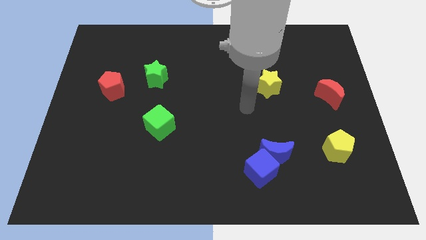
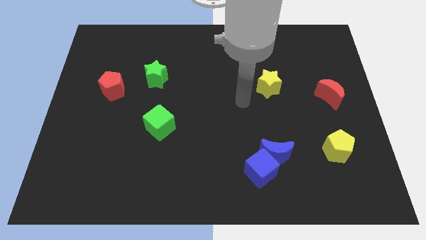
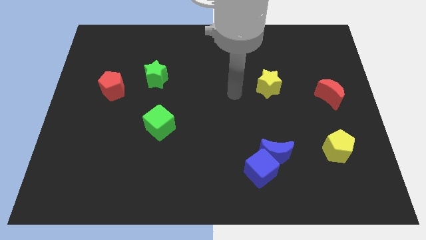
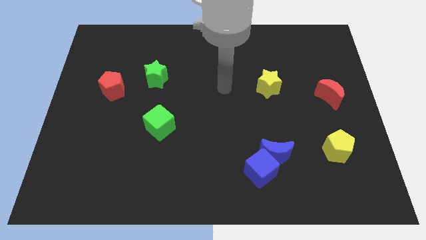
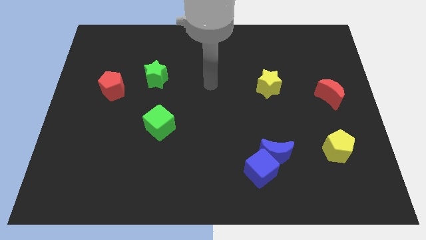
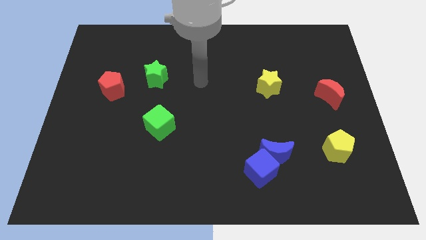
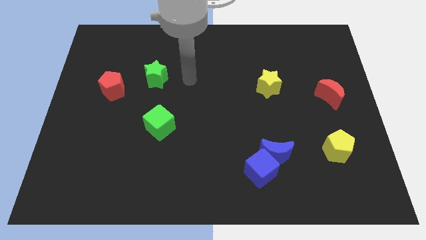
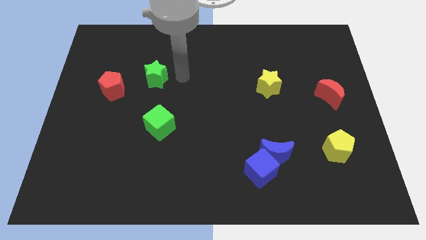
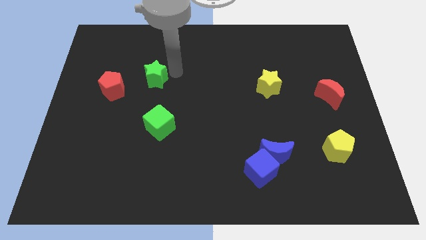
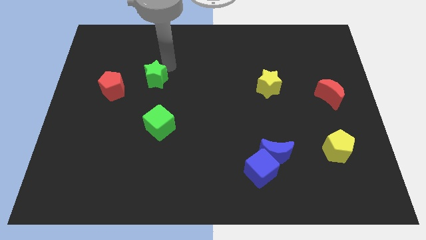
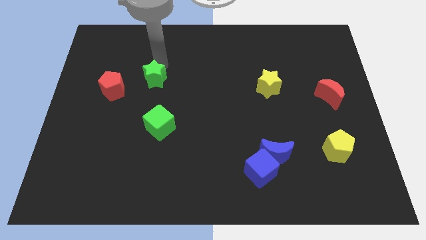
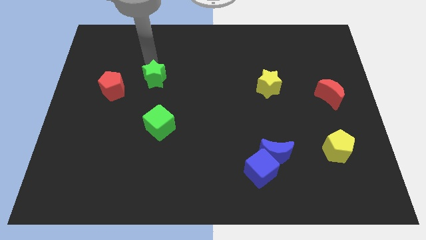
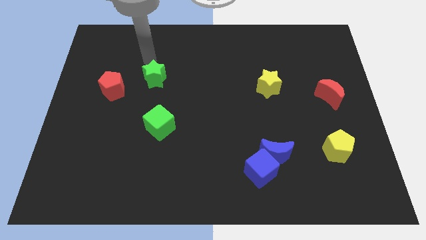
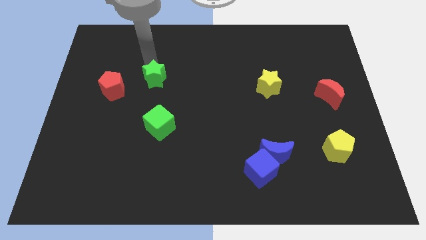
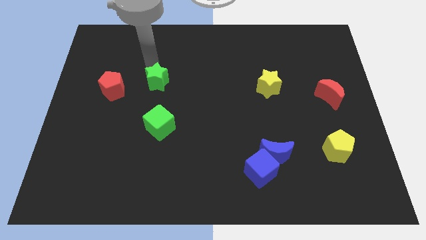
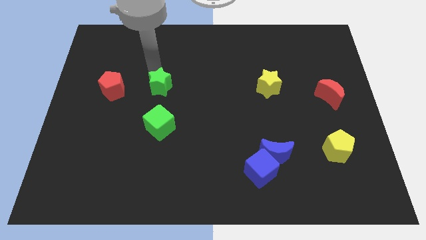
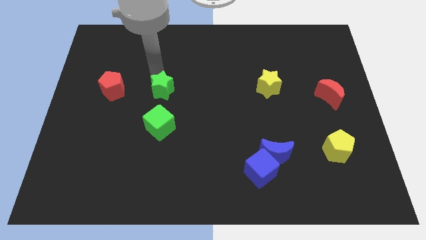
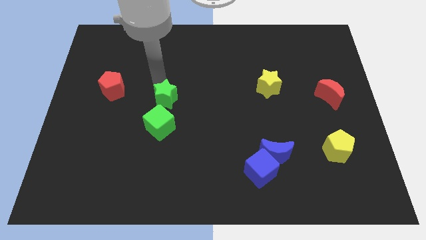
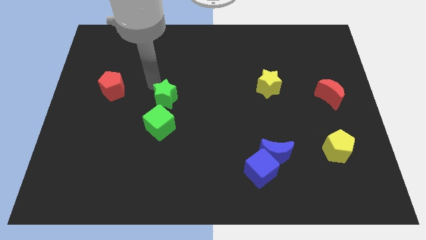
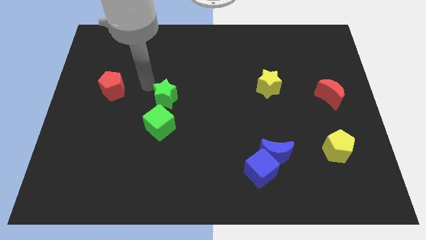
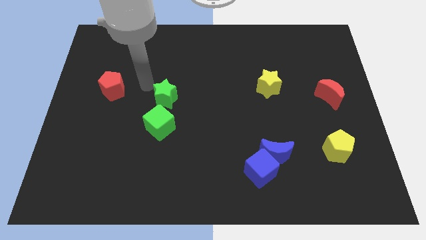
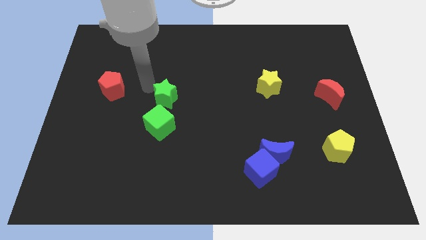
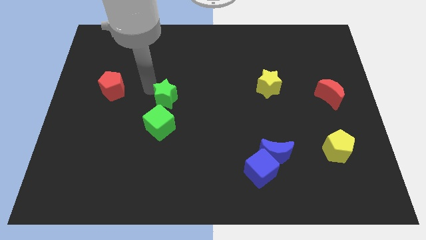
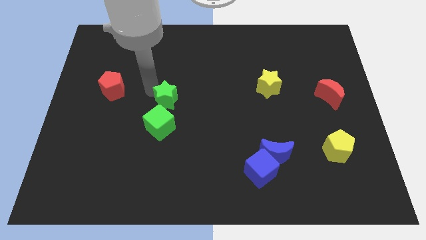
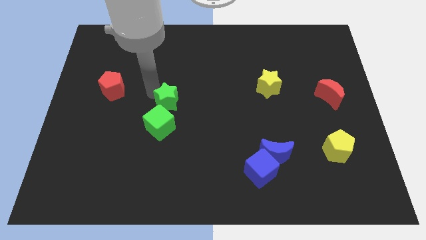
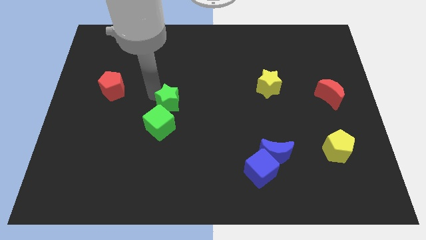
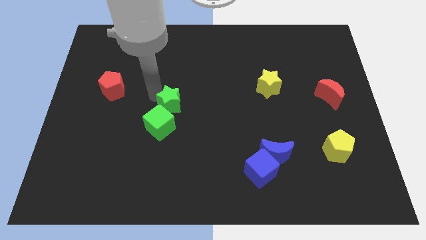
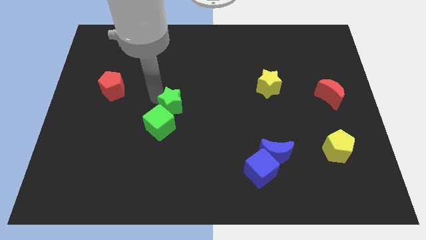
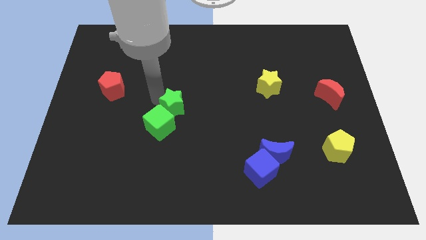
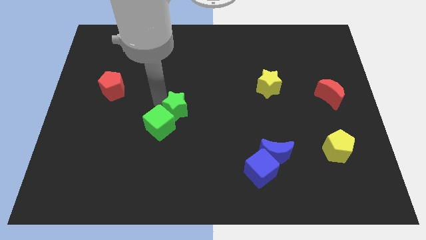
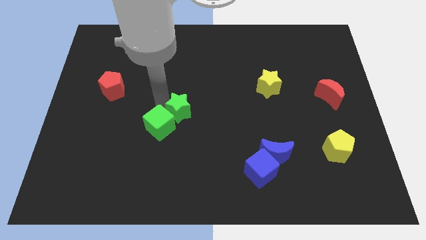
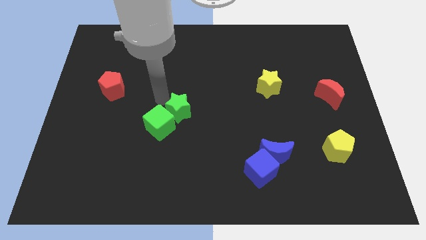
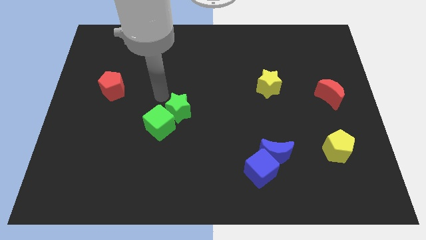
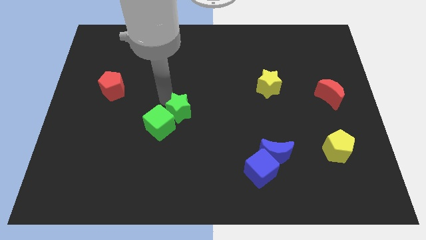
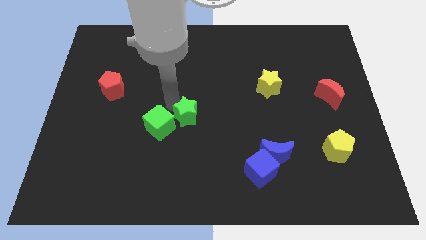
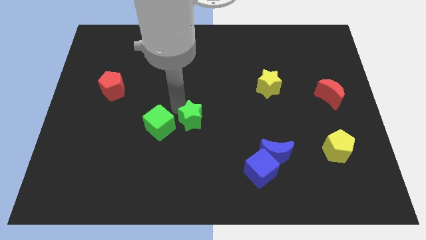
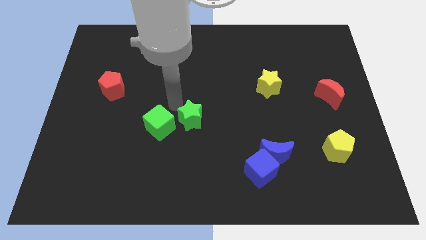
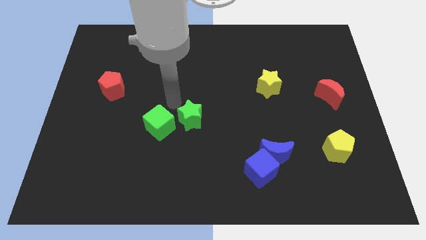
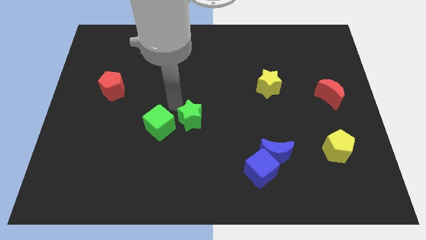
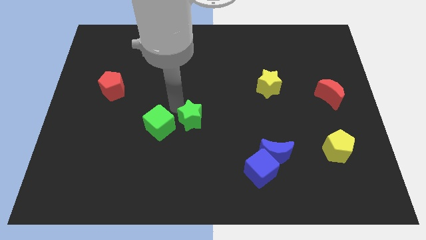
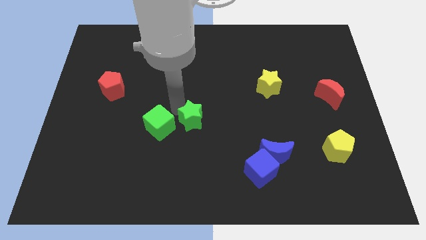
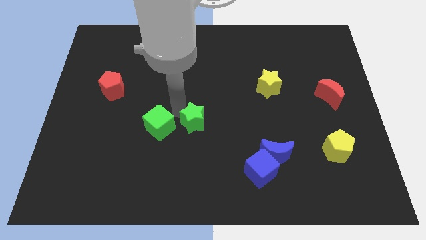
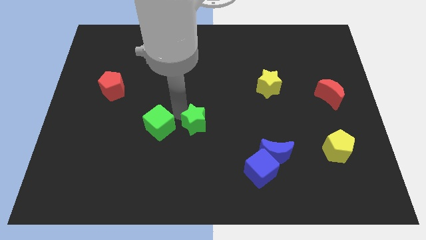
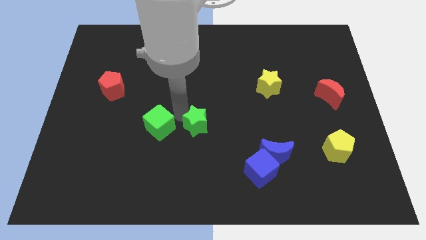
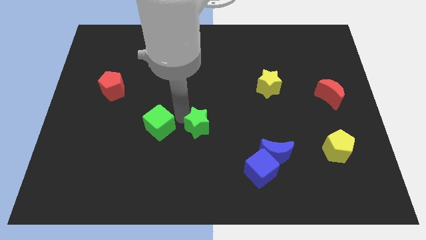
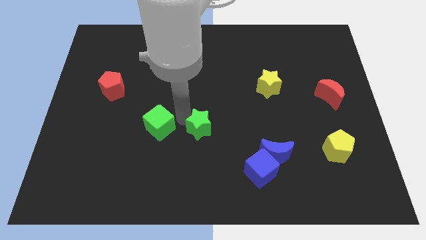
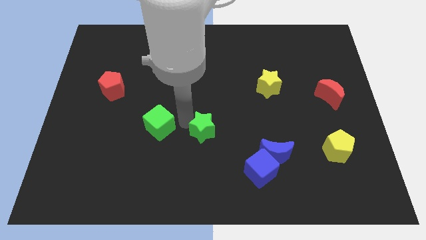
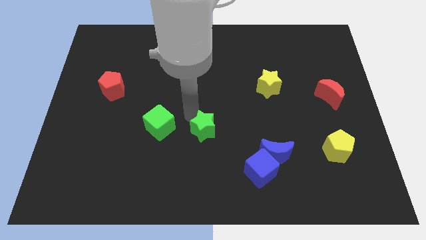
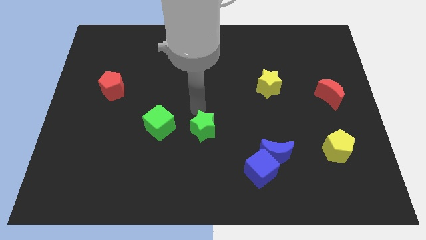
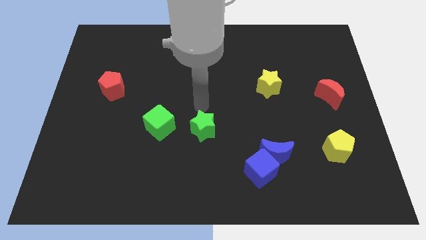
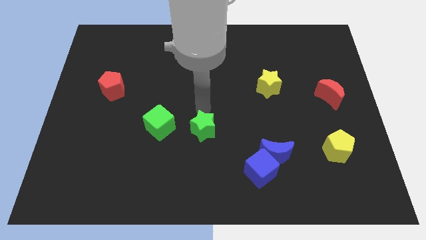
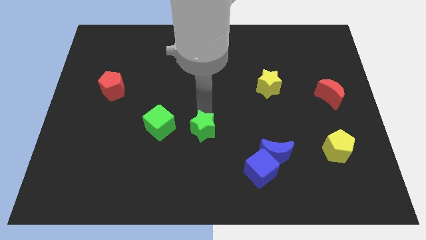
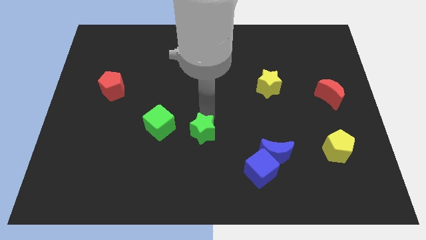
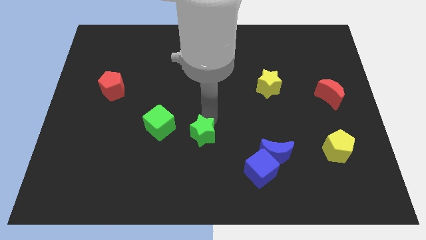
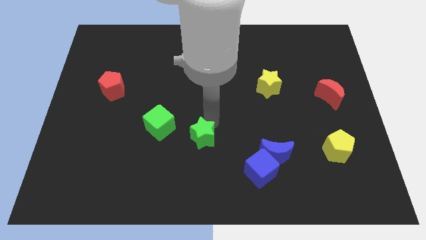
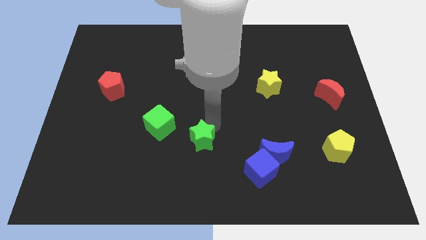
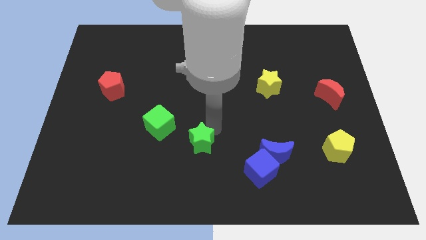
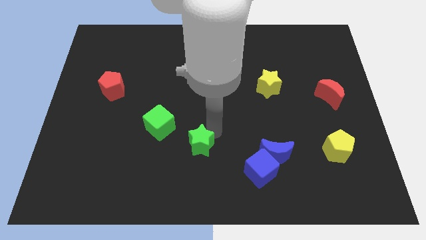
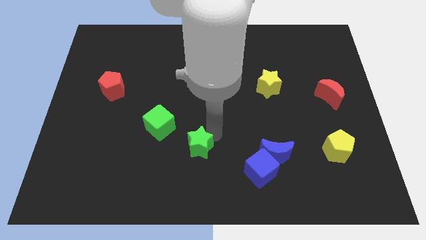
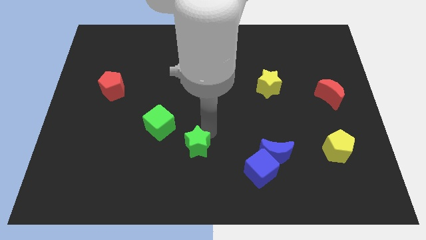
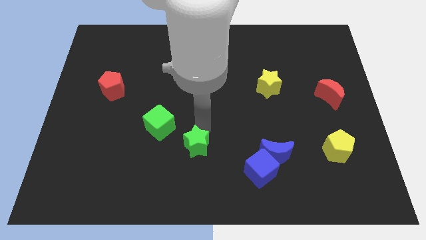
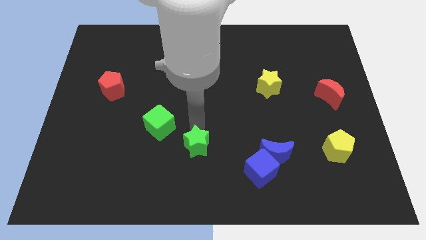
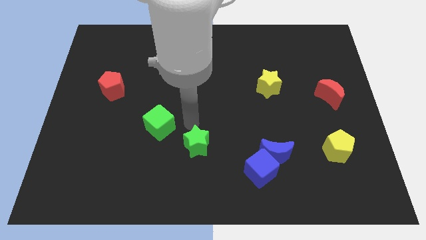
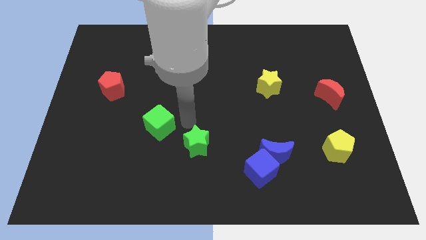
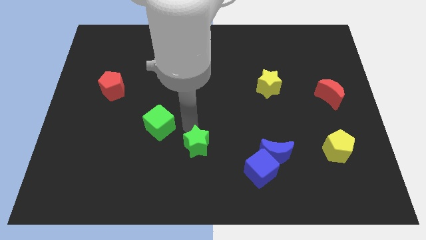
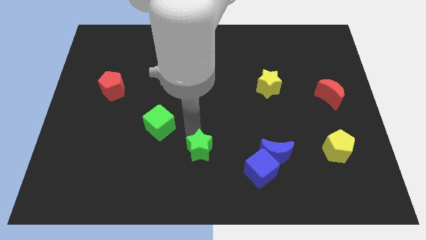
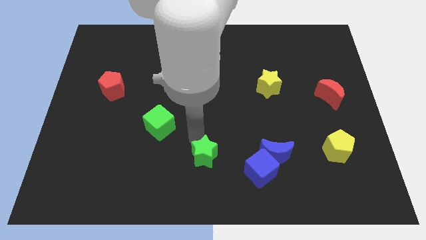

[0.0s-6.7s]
move the green star to the left of the blue cube

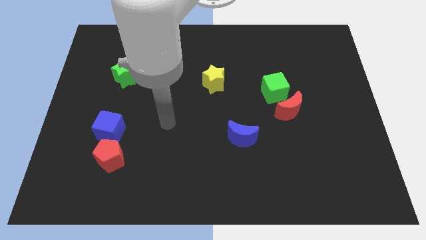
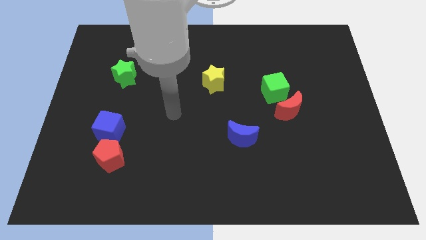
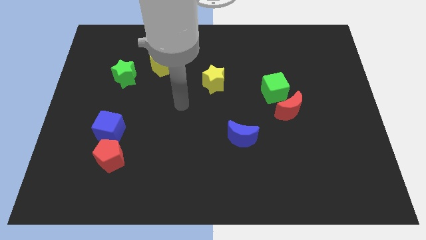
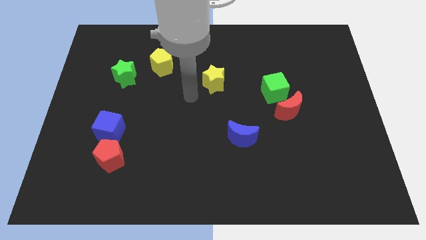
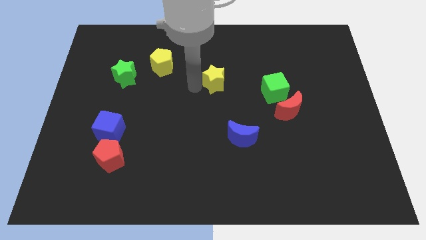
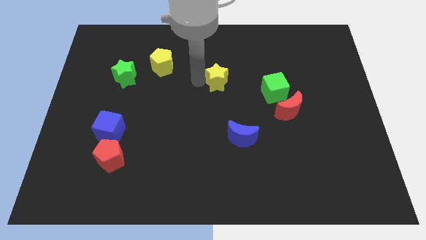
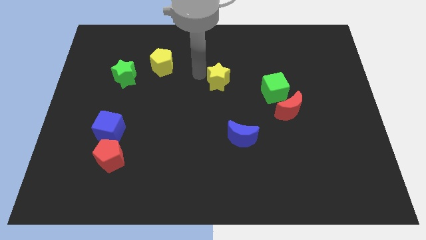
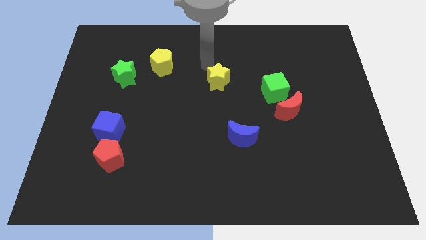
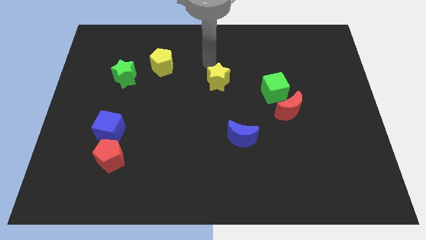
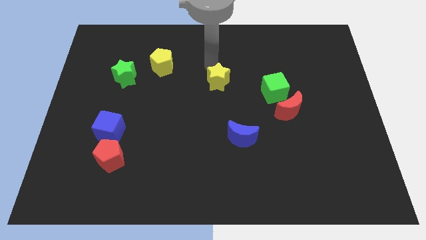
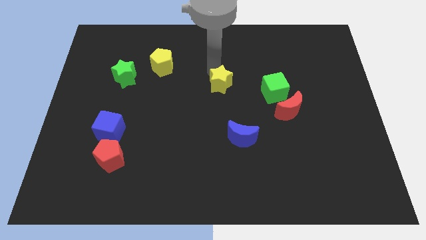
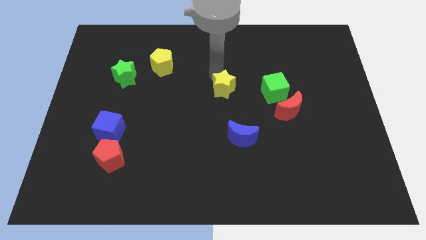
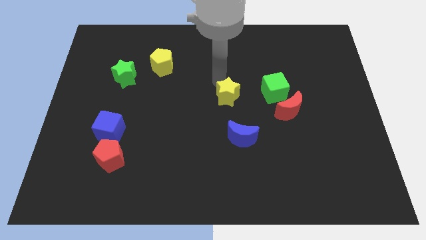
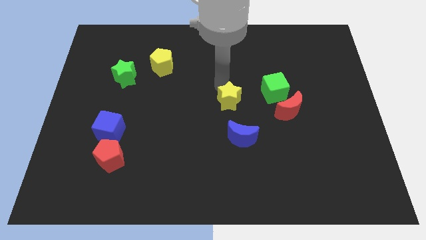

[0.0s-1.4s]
put the yellow star to the left side of the red moon
